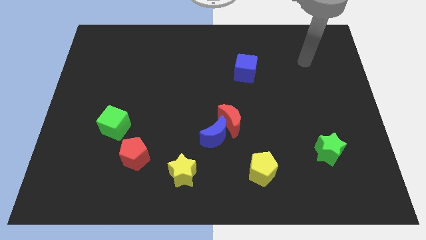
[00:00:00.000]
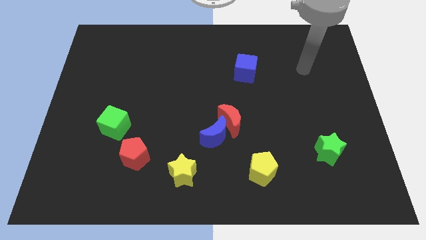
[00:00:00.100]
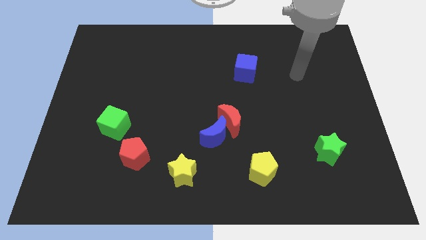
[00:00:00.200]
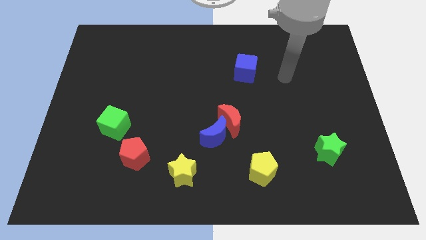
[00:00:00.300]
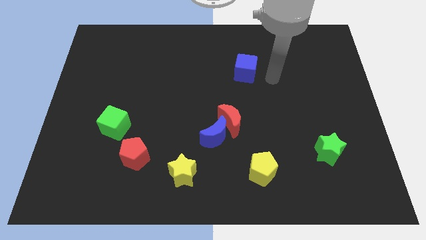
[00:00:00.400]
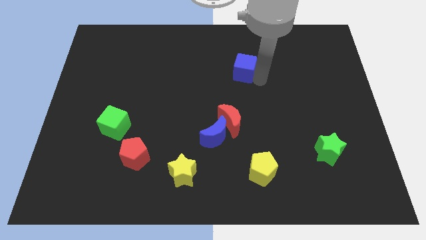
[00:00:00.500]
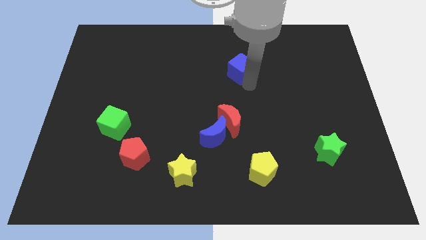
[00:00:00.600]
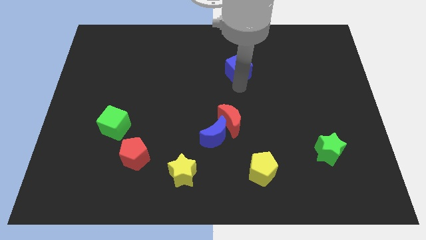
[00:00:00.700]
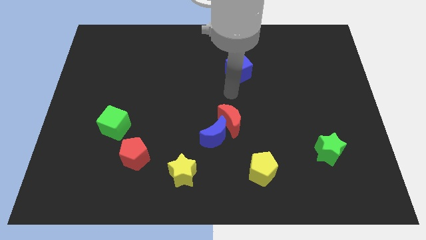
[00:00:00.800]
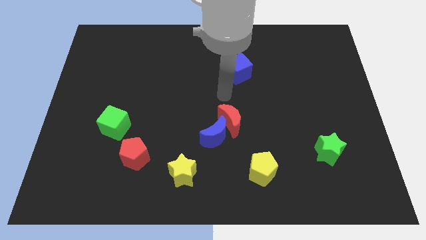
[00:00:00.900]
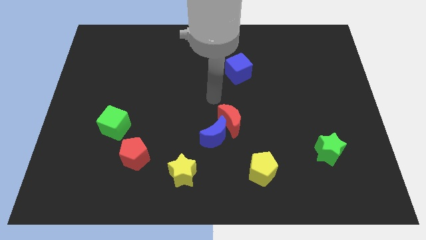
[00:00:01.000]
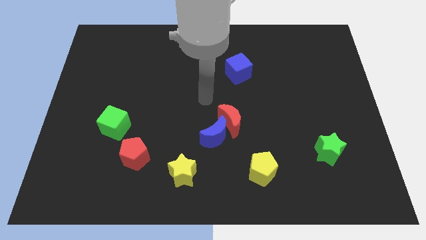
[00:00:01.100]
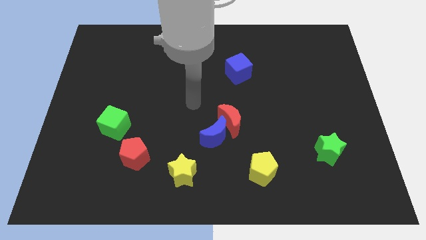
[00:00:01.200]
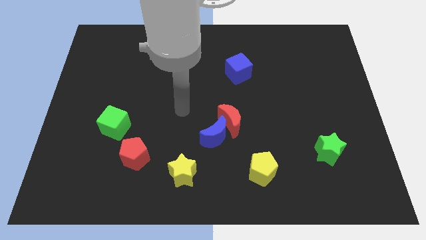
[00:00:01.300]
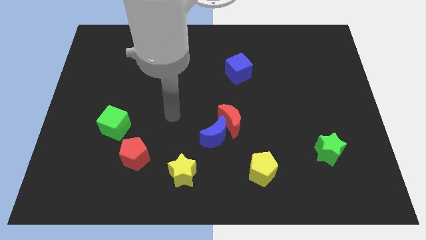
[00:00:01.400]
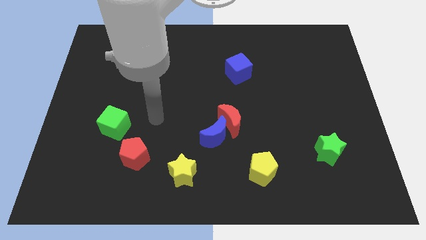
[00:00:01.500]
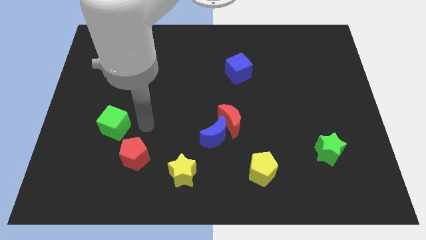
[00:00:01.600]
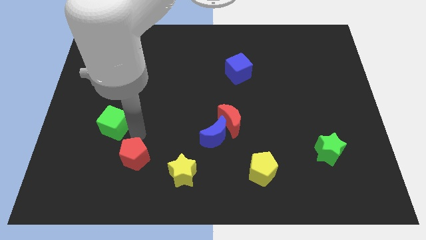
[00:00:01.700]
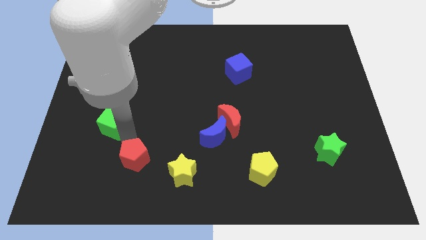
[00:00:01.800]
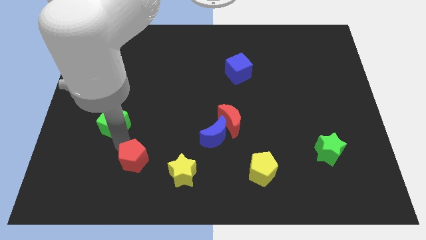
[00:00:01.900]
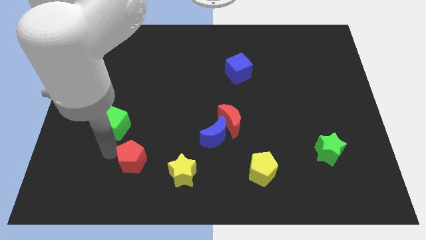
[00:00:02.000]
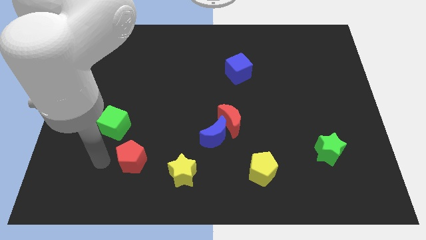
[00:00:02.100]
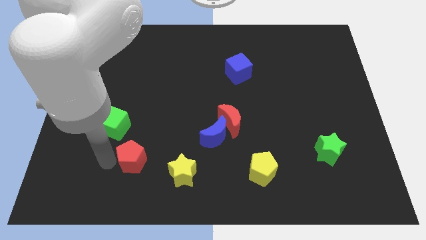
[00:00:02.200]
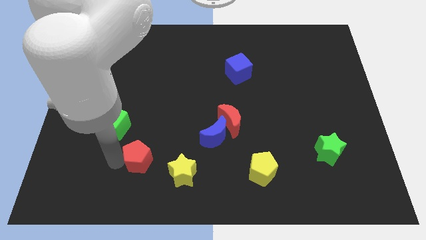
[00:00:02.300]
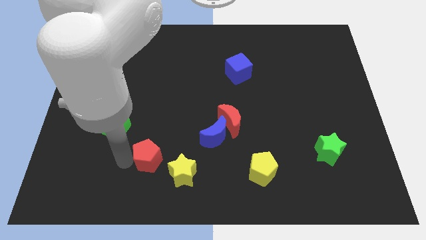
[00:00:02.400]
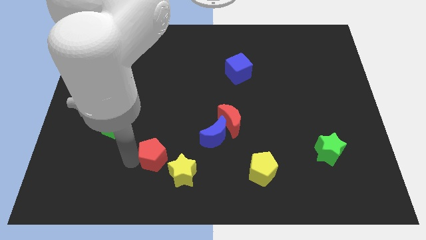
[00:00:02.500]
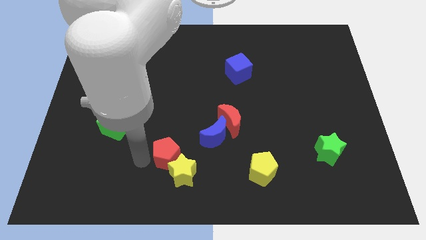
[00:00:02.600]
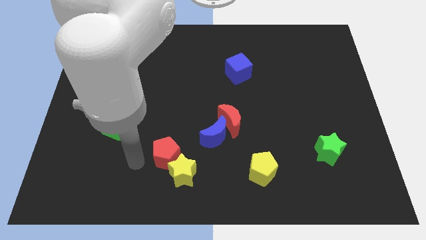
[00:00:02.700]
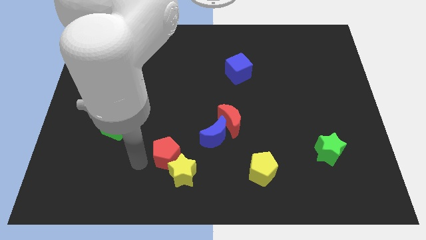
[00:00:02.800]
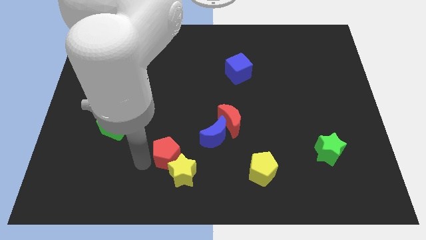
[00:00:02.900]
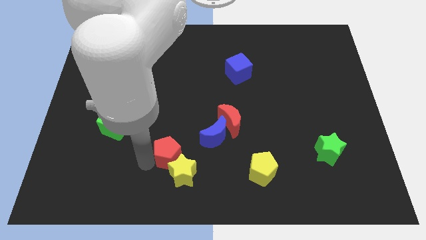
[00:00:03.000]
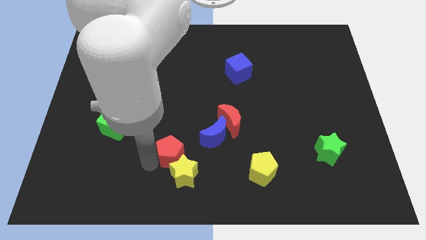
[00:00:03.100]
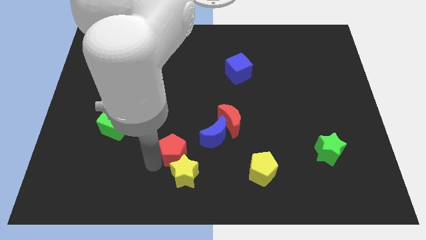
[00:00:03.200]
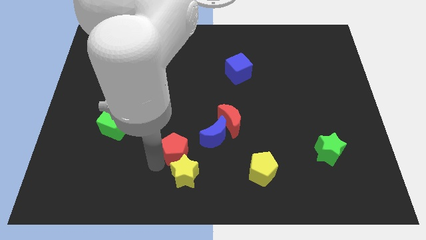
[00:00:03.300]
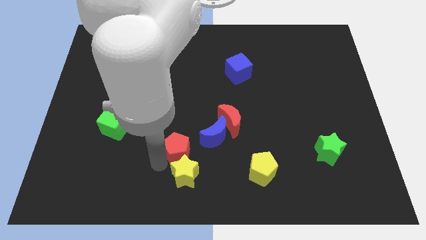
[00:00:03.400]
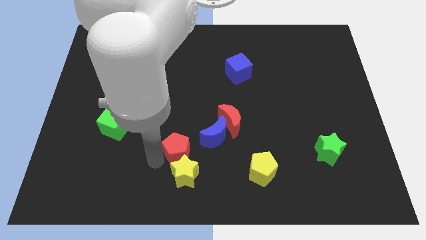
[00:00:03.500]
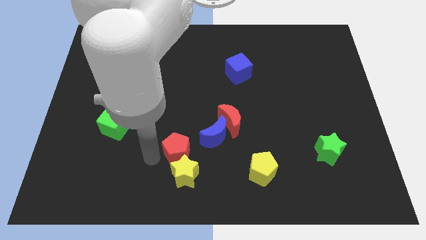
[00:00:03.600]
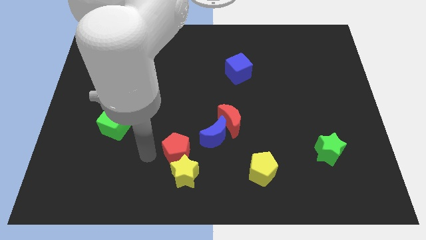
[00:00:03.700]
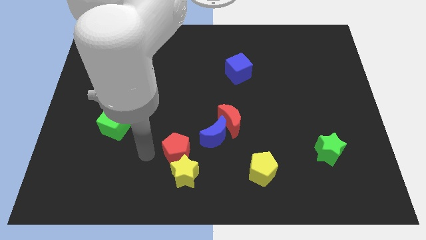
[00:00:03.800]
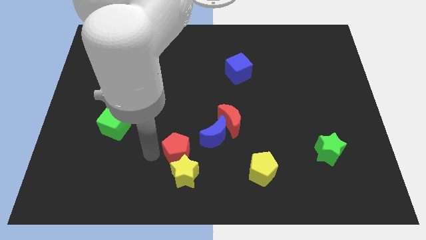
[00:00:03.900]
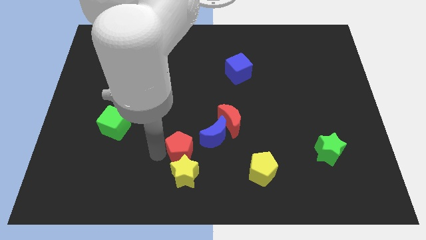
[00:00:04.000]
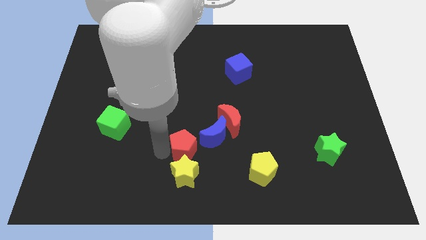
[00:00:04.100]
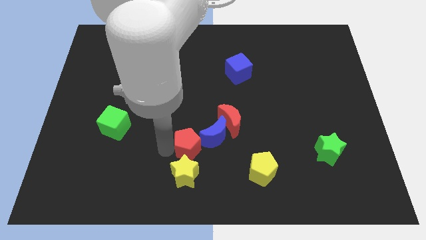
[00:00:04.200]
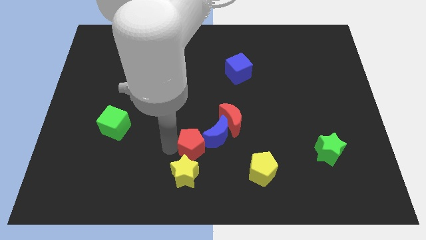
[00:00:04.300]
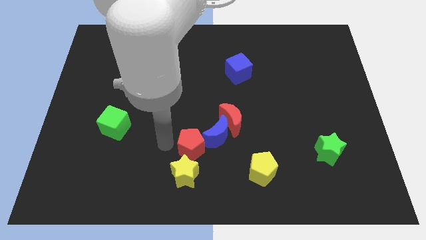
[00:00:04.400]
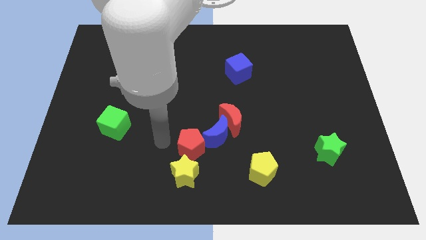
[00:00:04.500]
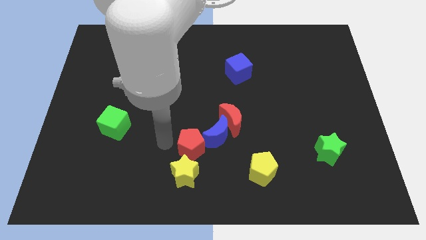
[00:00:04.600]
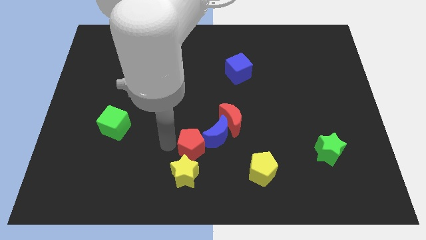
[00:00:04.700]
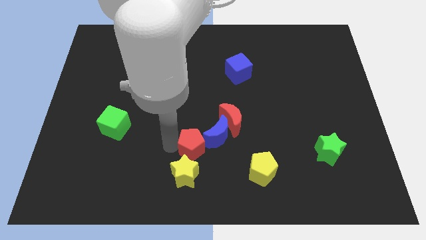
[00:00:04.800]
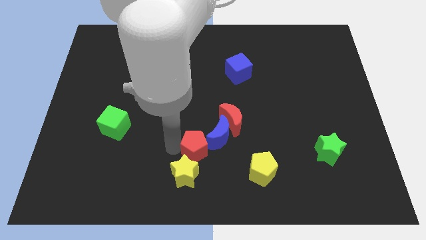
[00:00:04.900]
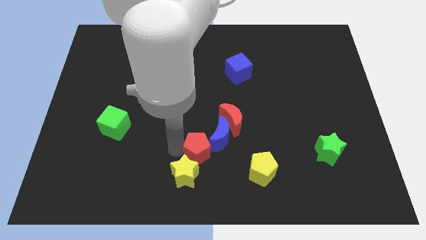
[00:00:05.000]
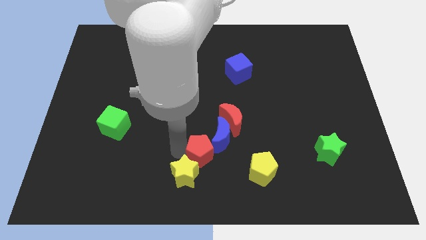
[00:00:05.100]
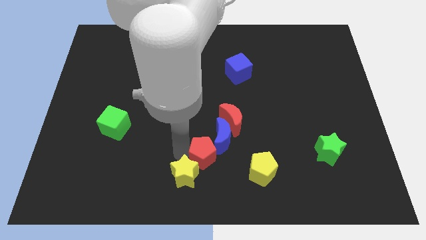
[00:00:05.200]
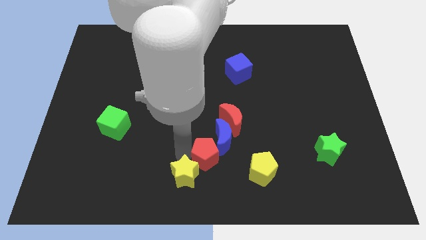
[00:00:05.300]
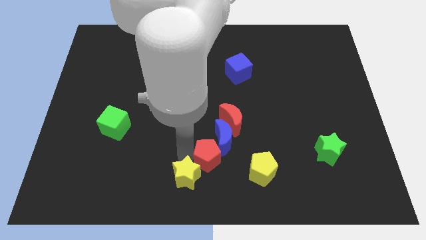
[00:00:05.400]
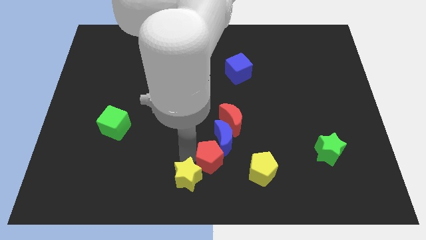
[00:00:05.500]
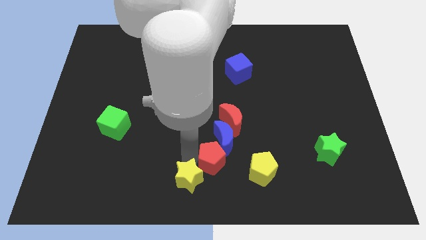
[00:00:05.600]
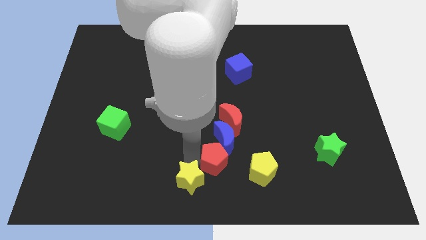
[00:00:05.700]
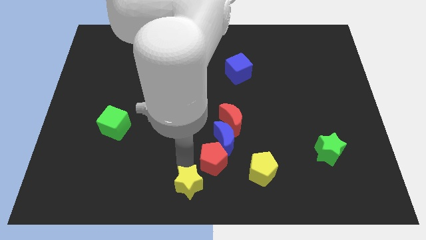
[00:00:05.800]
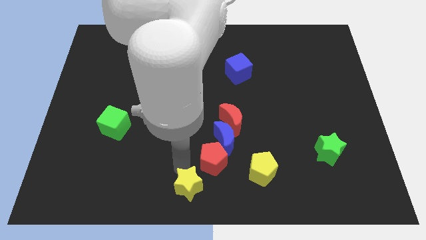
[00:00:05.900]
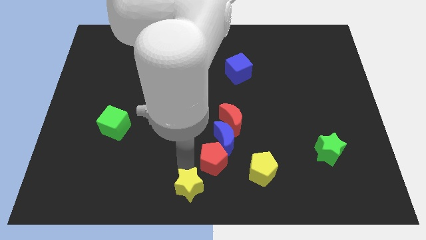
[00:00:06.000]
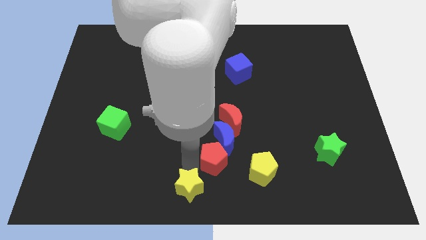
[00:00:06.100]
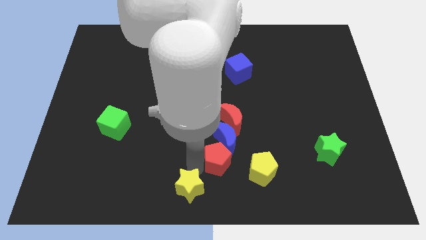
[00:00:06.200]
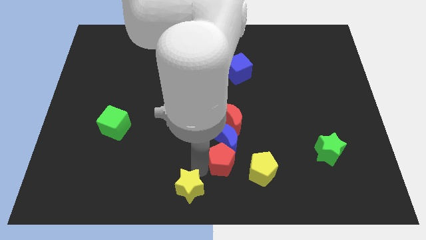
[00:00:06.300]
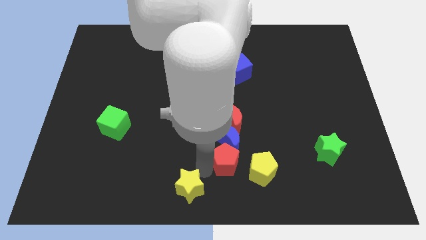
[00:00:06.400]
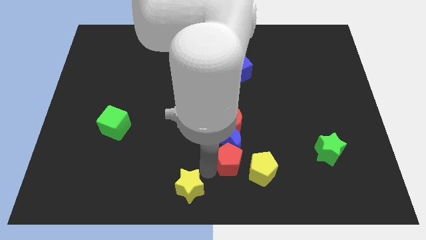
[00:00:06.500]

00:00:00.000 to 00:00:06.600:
push the red pentagon right

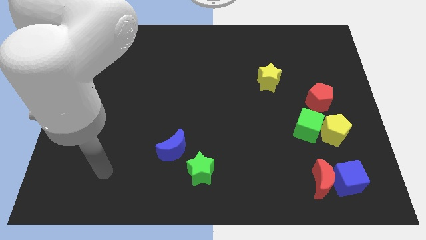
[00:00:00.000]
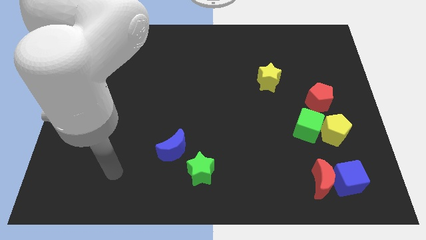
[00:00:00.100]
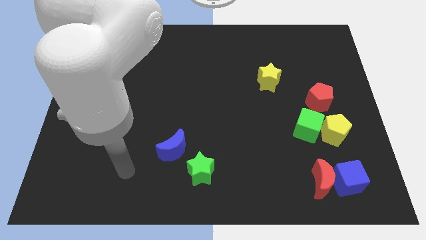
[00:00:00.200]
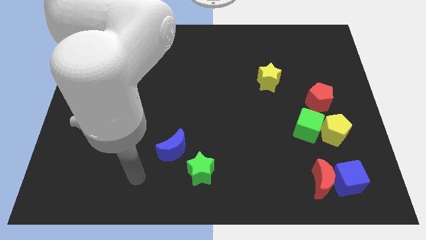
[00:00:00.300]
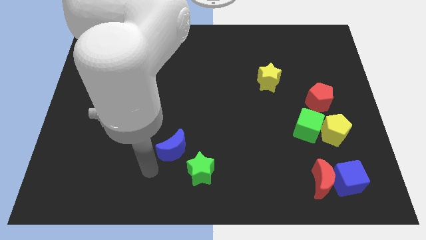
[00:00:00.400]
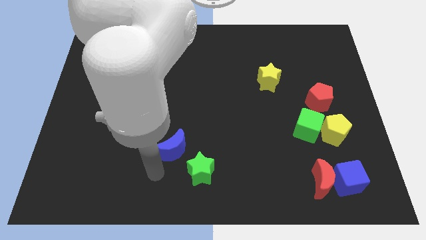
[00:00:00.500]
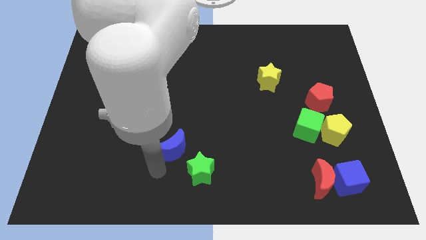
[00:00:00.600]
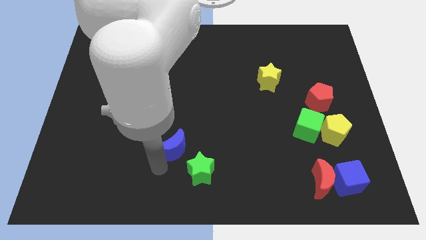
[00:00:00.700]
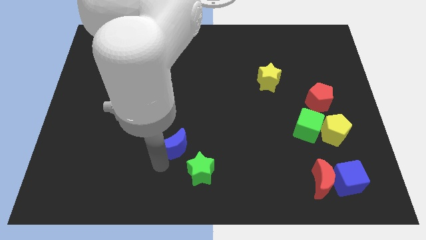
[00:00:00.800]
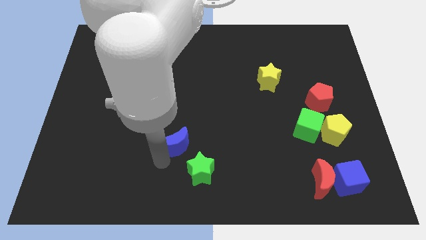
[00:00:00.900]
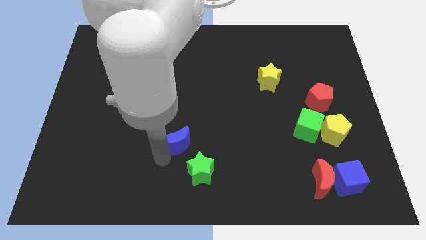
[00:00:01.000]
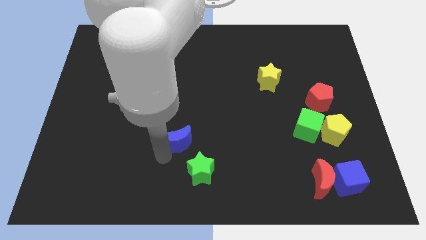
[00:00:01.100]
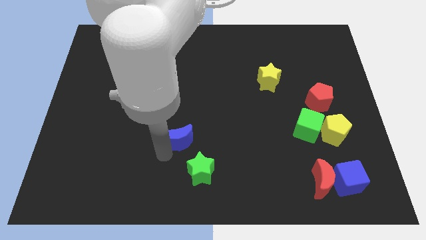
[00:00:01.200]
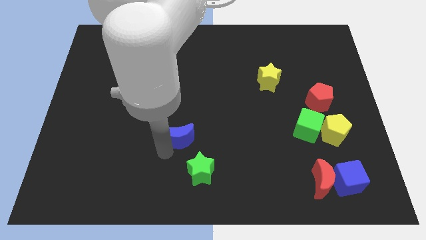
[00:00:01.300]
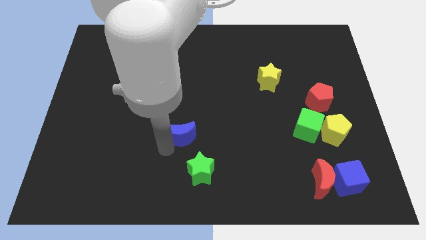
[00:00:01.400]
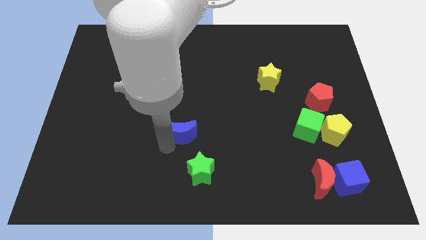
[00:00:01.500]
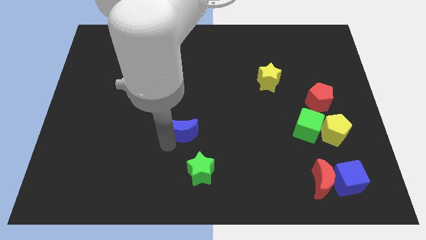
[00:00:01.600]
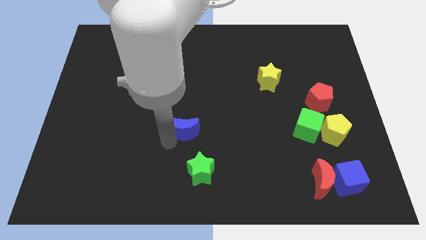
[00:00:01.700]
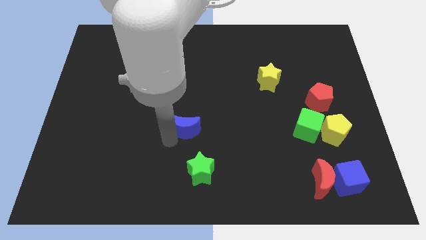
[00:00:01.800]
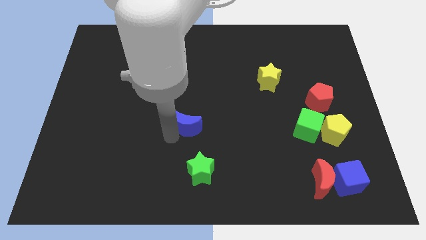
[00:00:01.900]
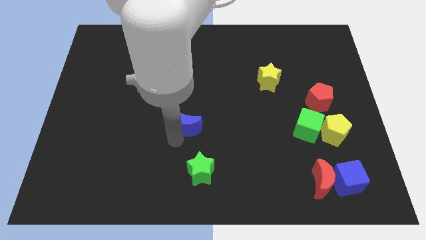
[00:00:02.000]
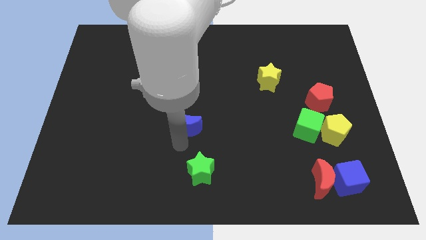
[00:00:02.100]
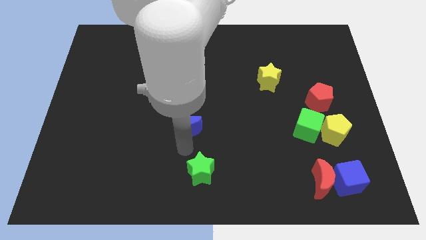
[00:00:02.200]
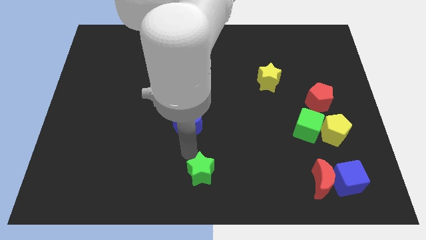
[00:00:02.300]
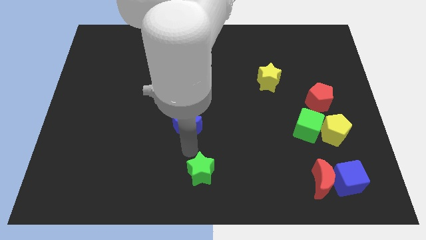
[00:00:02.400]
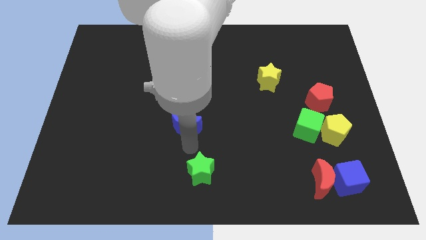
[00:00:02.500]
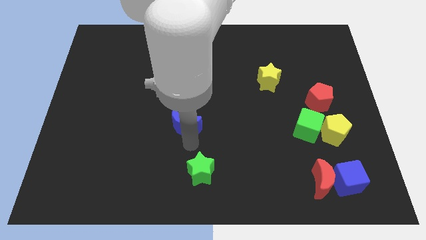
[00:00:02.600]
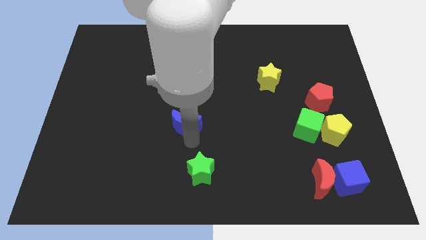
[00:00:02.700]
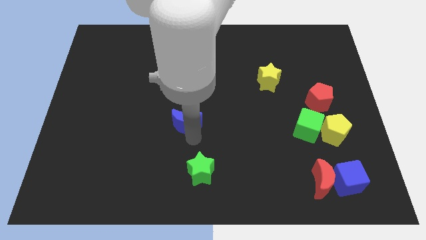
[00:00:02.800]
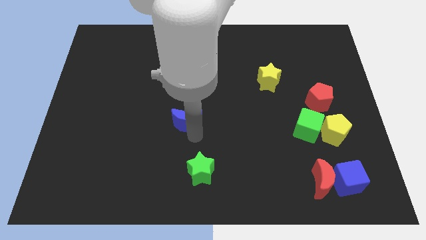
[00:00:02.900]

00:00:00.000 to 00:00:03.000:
slightly push the blue moon up
